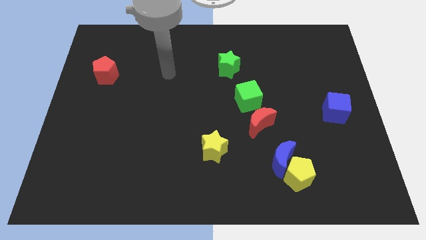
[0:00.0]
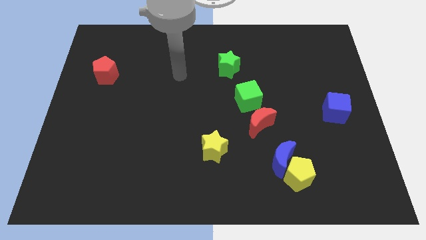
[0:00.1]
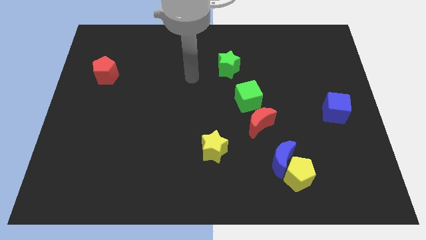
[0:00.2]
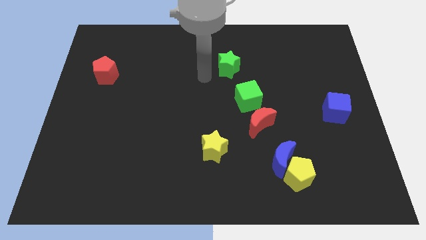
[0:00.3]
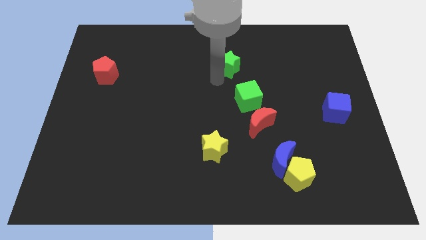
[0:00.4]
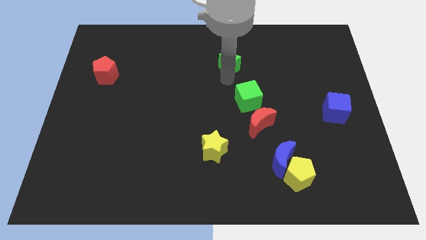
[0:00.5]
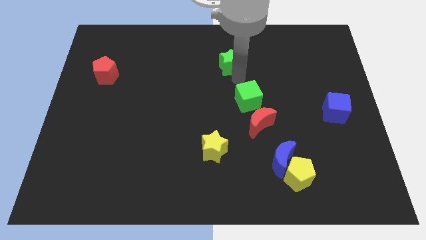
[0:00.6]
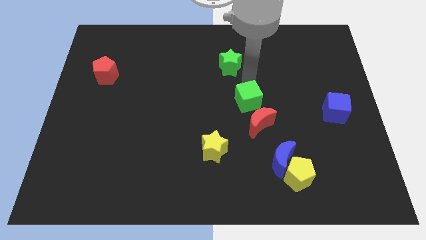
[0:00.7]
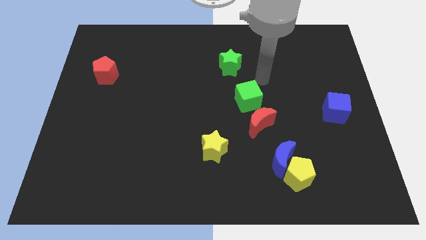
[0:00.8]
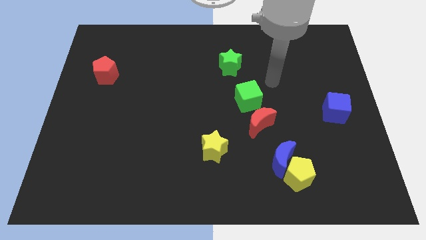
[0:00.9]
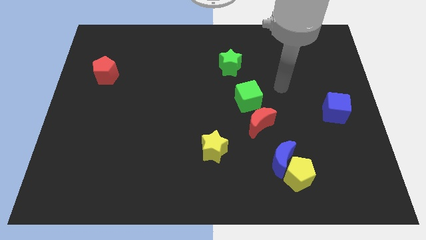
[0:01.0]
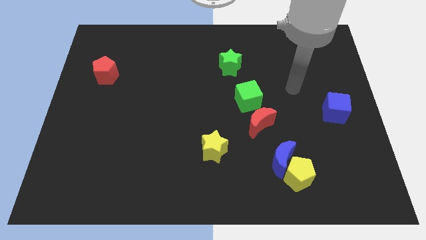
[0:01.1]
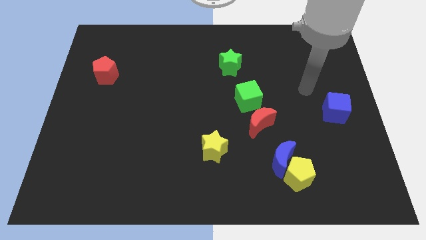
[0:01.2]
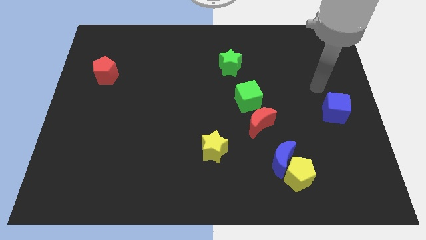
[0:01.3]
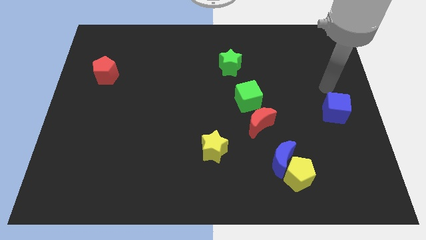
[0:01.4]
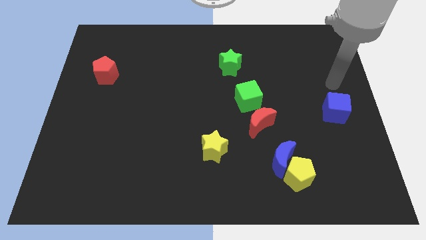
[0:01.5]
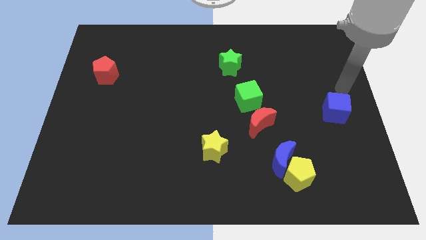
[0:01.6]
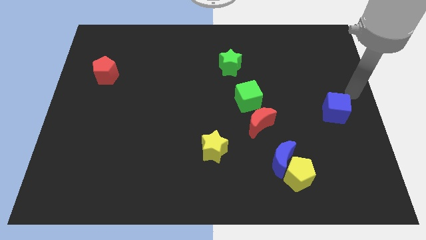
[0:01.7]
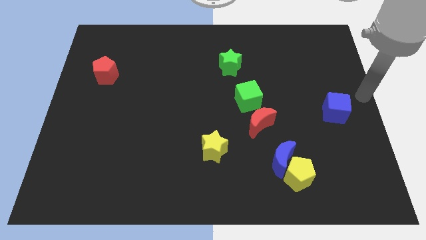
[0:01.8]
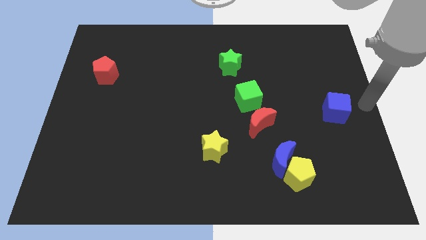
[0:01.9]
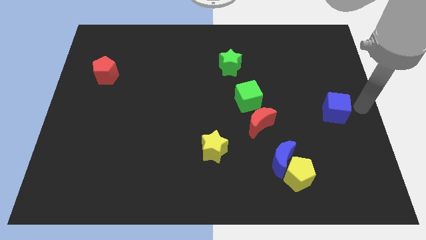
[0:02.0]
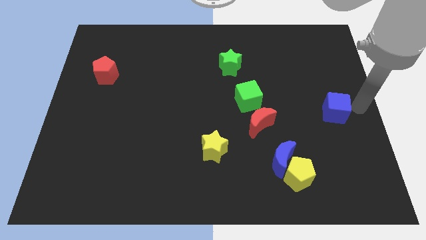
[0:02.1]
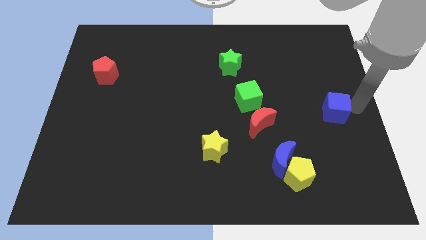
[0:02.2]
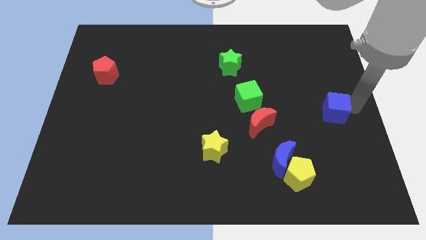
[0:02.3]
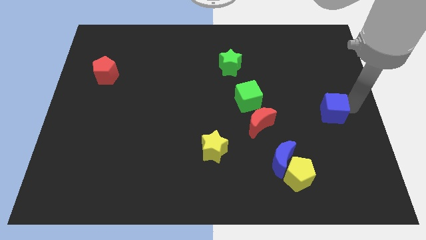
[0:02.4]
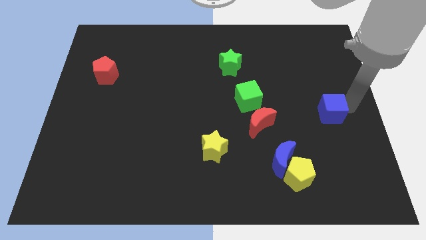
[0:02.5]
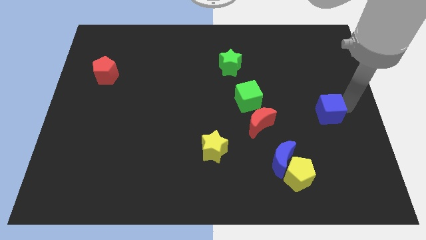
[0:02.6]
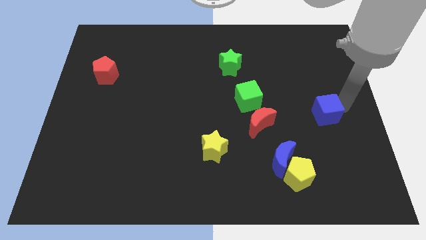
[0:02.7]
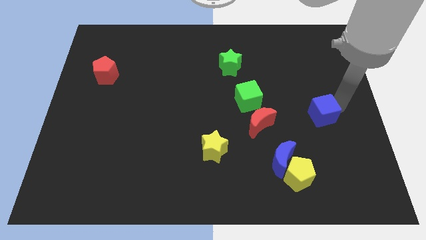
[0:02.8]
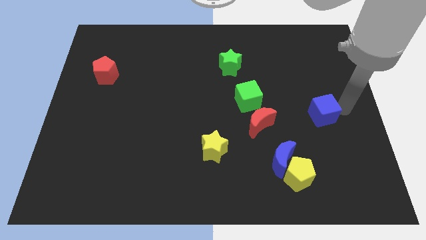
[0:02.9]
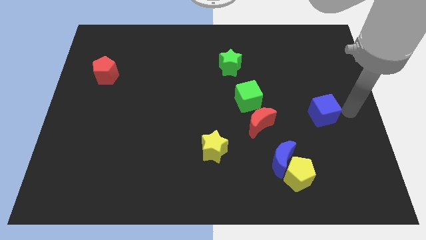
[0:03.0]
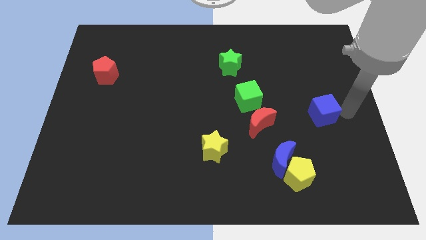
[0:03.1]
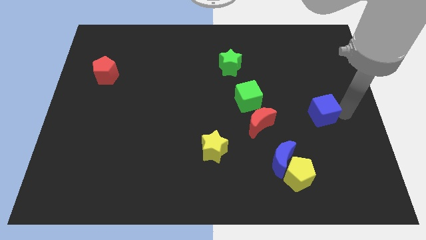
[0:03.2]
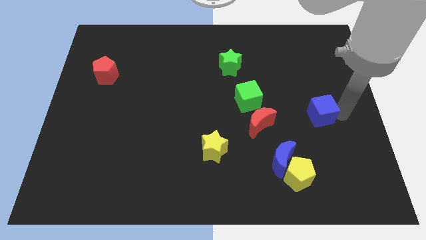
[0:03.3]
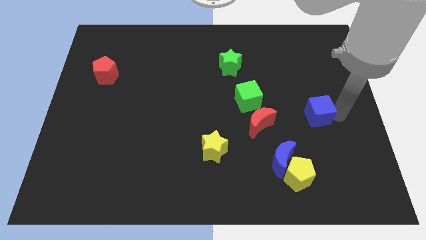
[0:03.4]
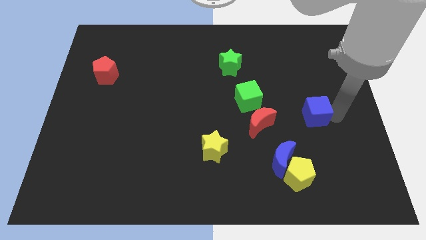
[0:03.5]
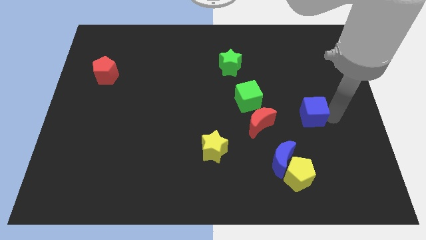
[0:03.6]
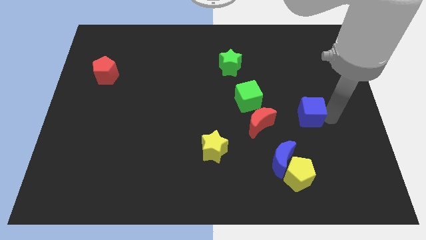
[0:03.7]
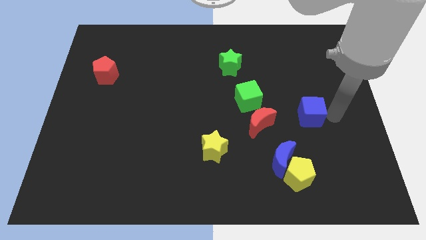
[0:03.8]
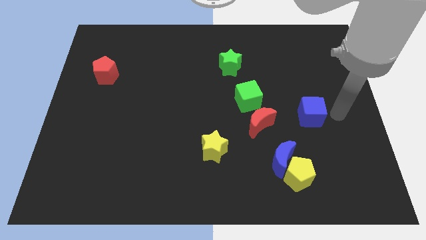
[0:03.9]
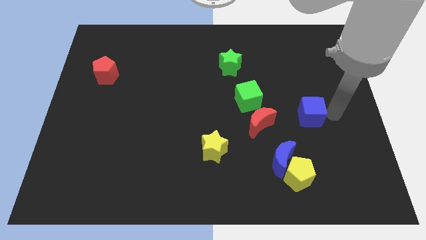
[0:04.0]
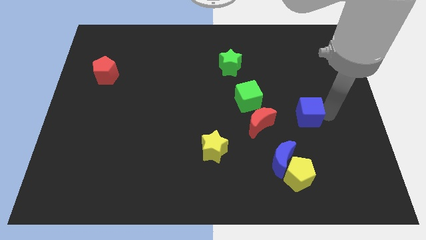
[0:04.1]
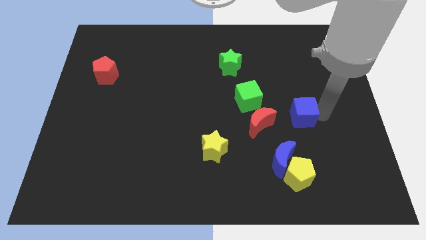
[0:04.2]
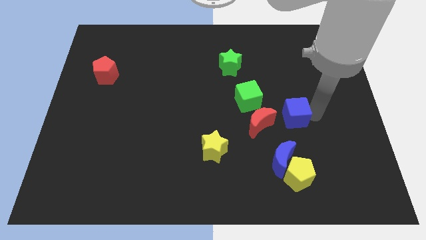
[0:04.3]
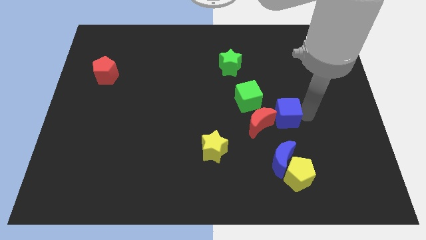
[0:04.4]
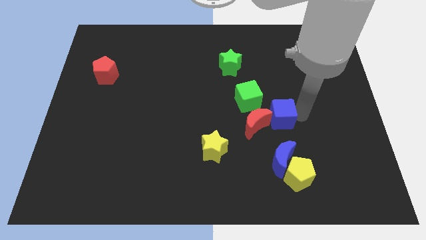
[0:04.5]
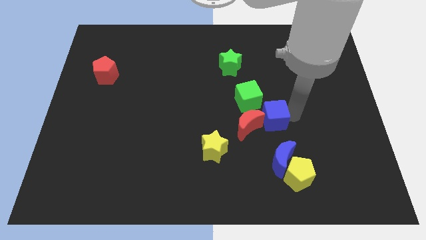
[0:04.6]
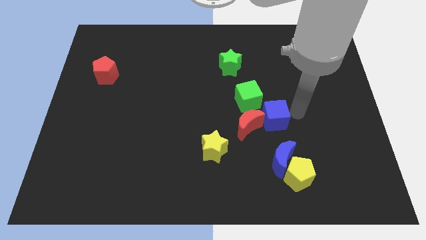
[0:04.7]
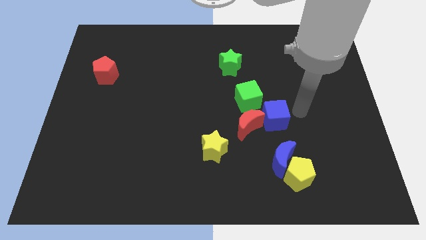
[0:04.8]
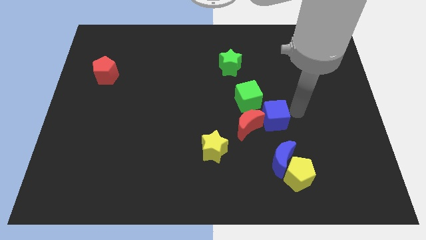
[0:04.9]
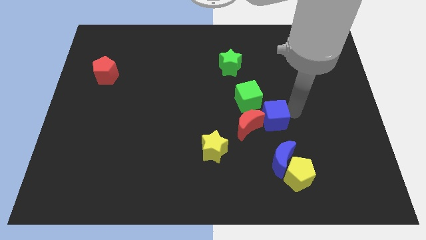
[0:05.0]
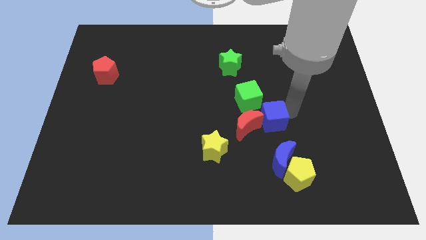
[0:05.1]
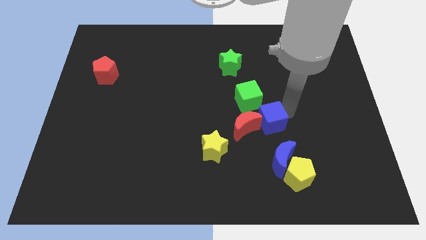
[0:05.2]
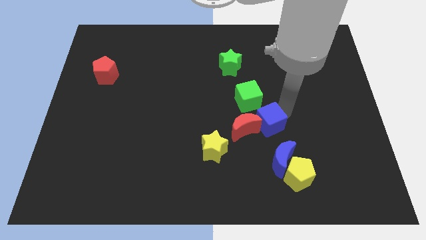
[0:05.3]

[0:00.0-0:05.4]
move the blue cube next to the red moon

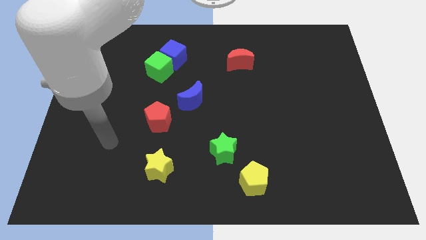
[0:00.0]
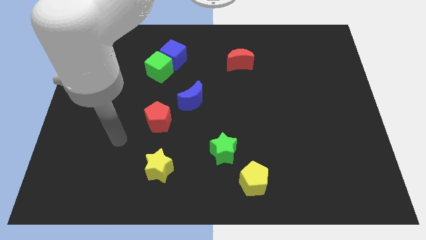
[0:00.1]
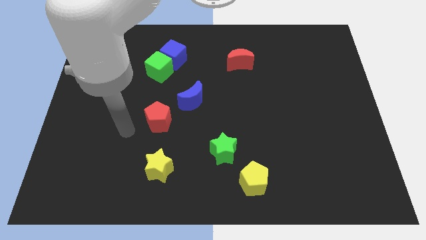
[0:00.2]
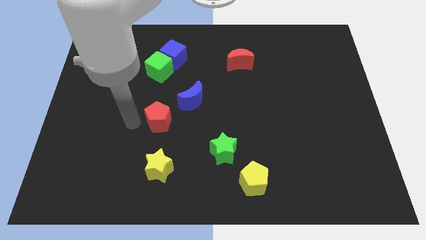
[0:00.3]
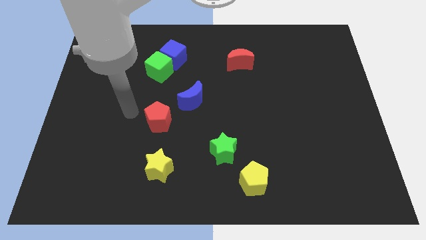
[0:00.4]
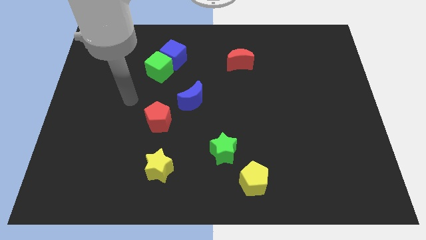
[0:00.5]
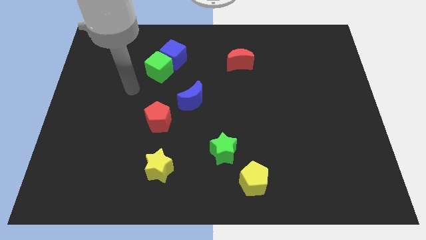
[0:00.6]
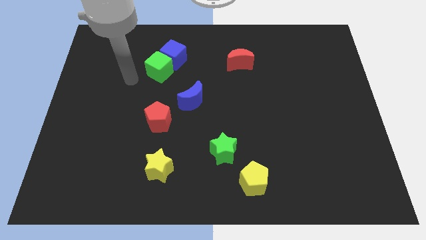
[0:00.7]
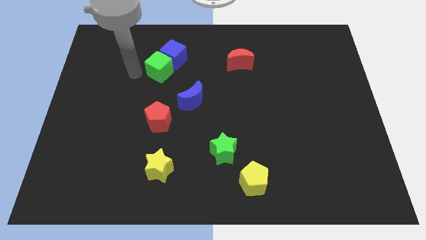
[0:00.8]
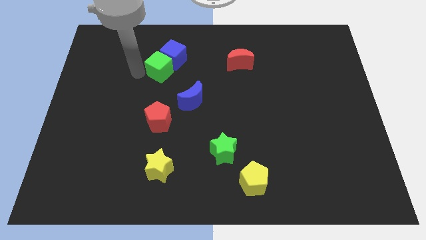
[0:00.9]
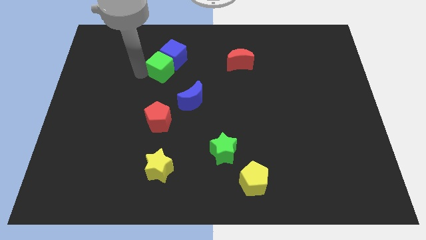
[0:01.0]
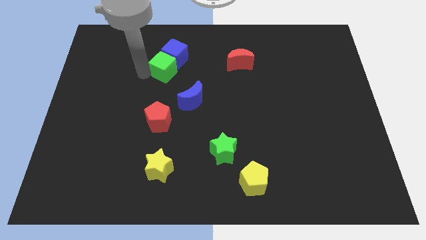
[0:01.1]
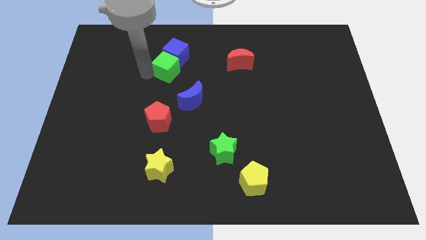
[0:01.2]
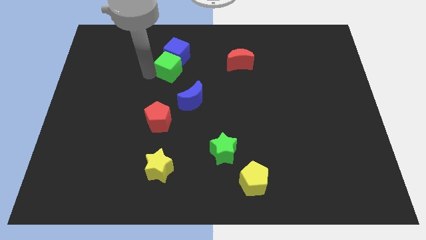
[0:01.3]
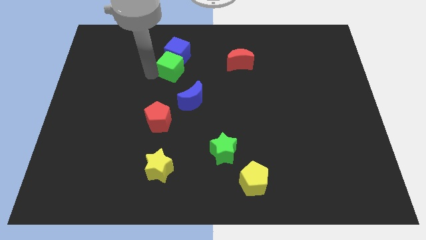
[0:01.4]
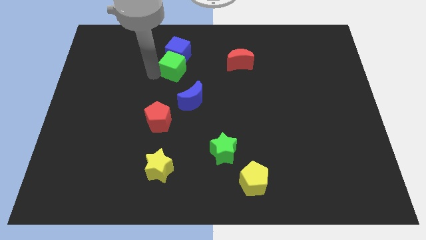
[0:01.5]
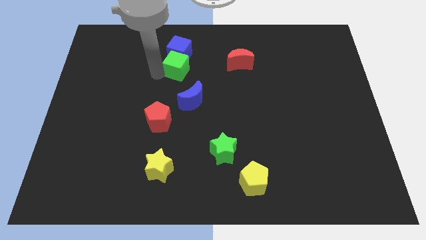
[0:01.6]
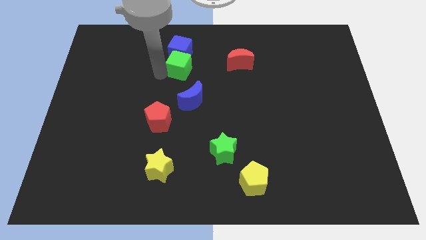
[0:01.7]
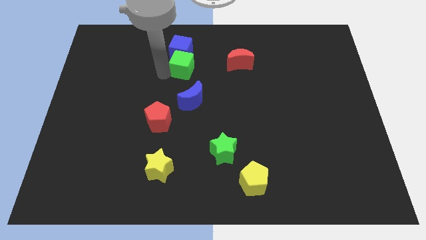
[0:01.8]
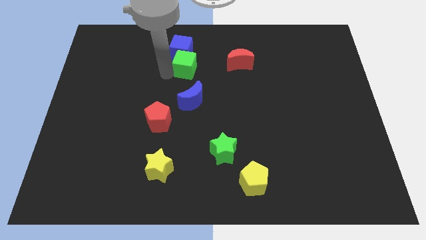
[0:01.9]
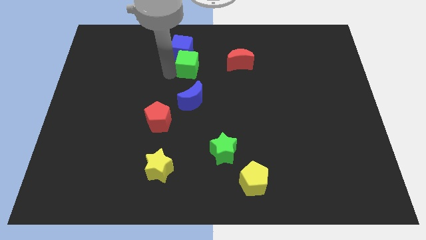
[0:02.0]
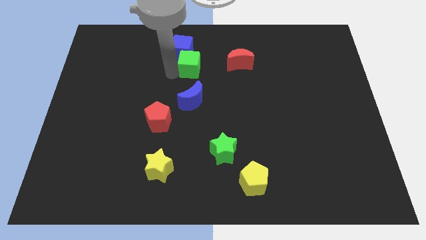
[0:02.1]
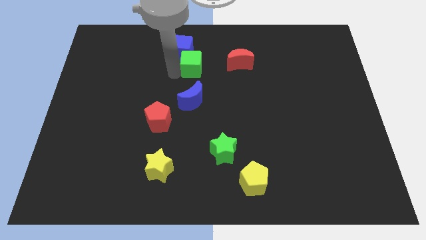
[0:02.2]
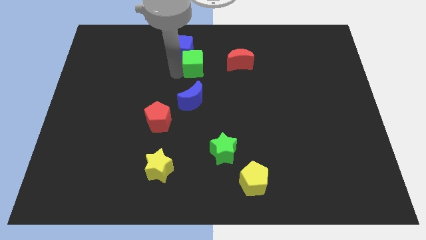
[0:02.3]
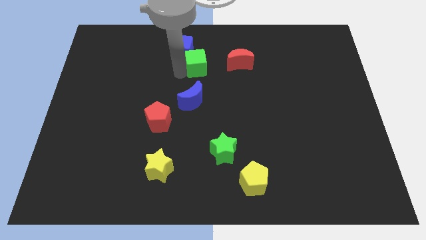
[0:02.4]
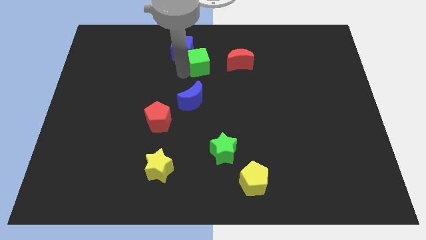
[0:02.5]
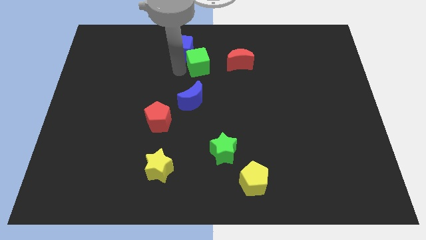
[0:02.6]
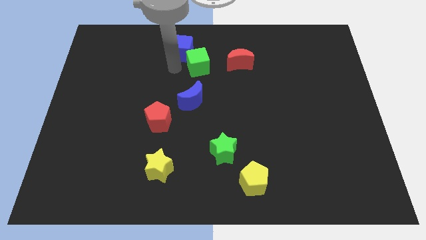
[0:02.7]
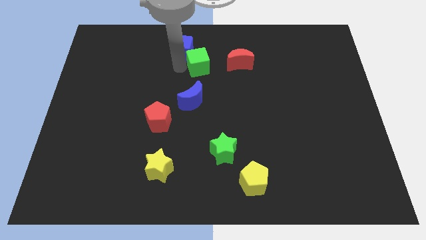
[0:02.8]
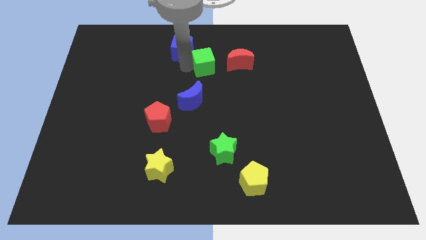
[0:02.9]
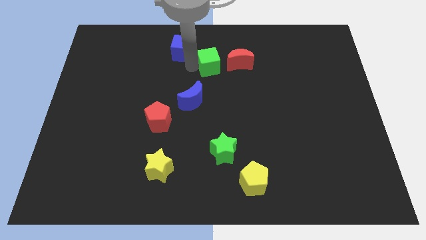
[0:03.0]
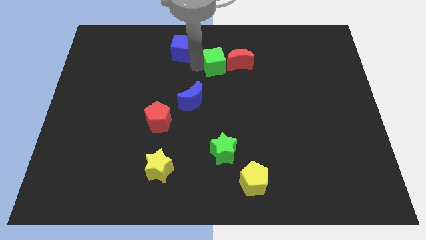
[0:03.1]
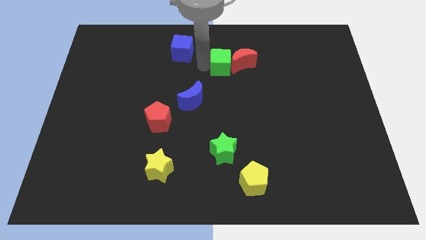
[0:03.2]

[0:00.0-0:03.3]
put the green cube towards the red moon
